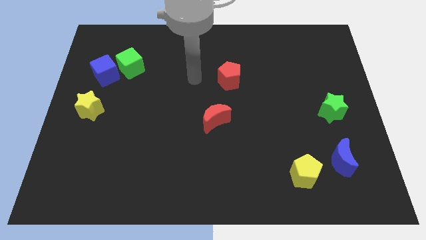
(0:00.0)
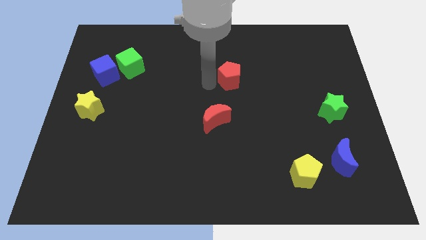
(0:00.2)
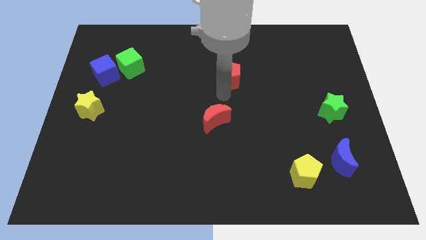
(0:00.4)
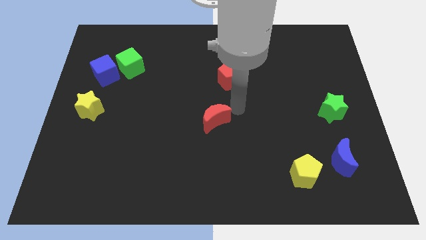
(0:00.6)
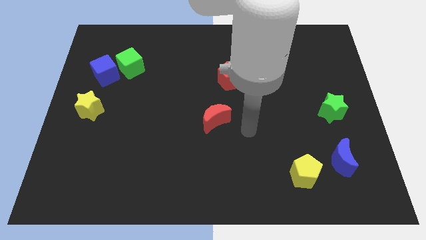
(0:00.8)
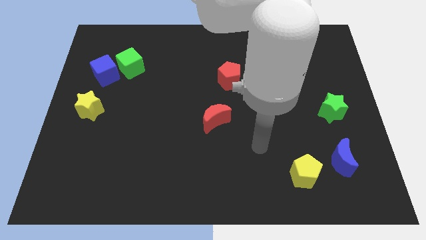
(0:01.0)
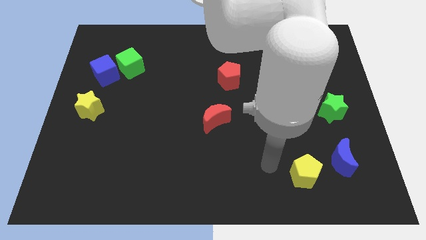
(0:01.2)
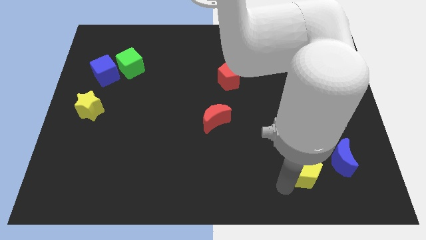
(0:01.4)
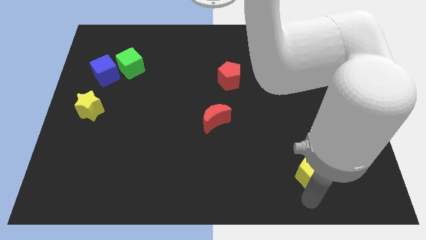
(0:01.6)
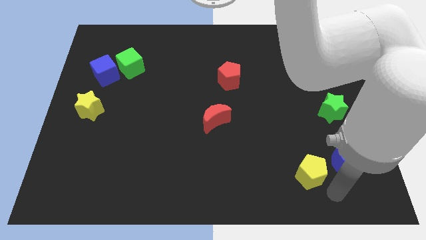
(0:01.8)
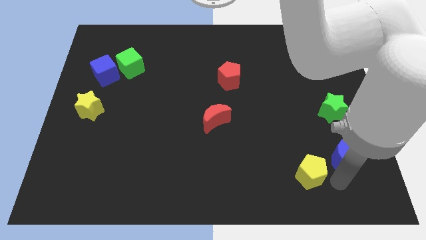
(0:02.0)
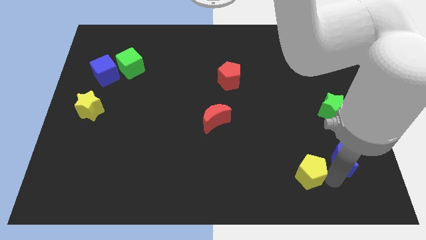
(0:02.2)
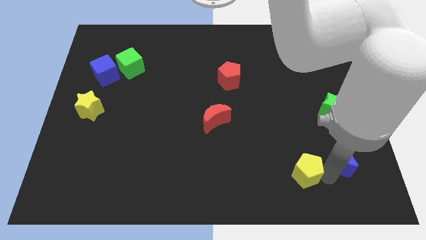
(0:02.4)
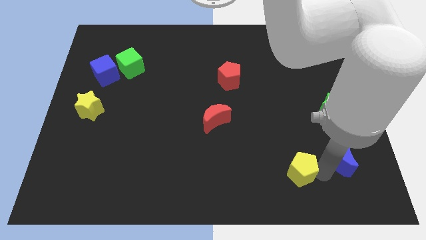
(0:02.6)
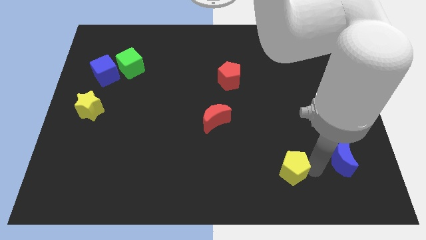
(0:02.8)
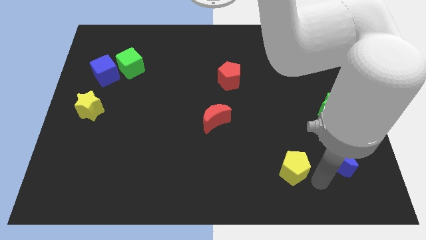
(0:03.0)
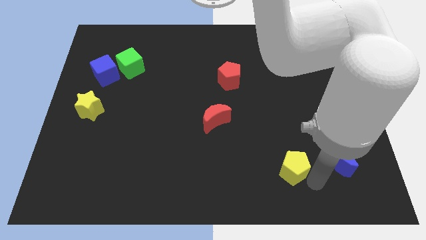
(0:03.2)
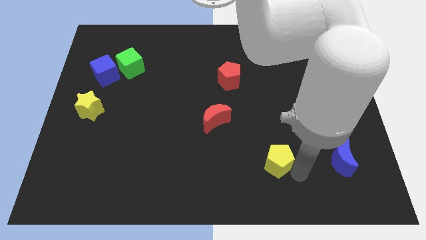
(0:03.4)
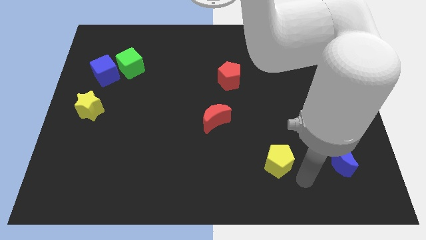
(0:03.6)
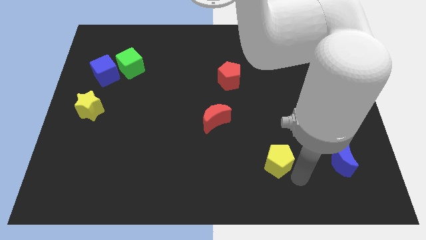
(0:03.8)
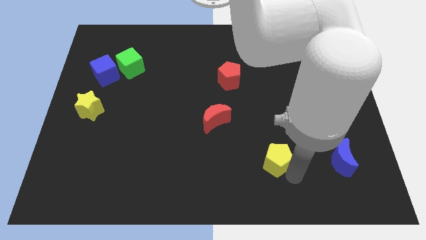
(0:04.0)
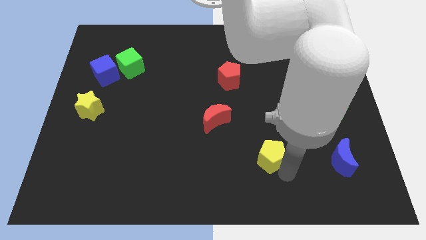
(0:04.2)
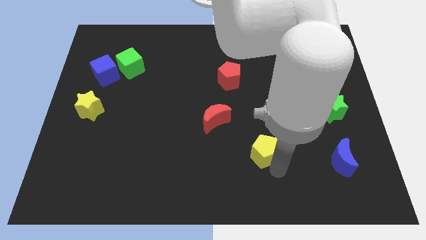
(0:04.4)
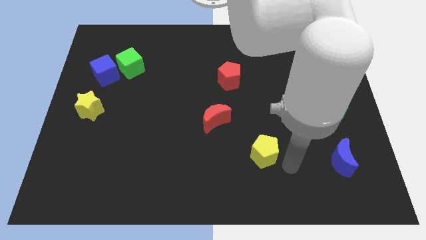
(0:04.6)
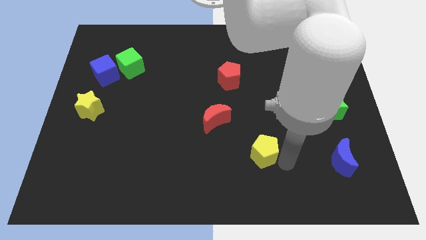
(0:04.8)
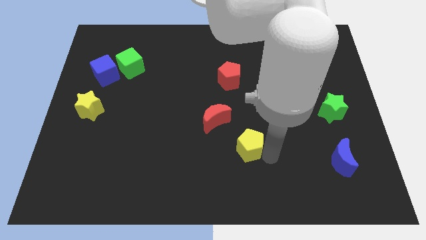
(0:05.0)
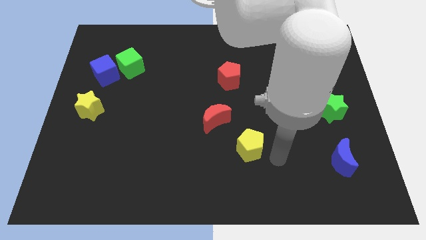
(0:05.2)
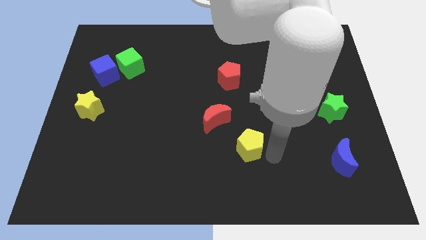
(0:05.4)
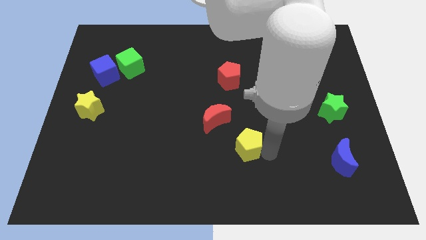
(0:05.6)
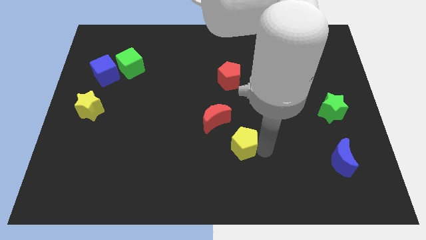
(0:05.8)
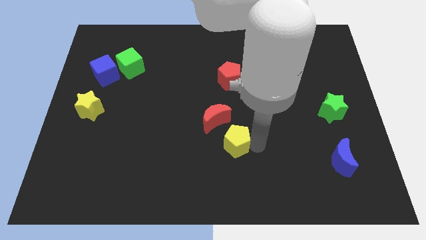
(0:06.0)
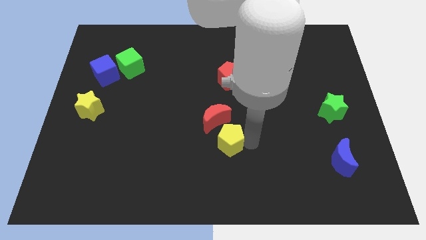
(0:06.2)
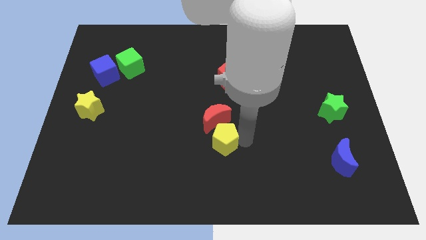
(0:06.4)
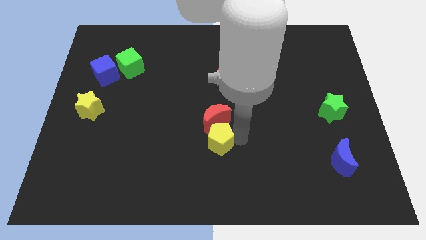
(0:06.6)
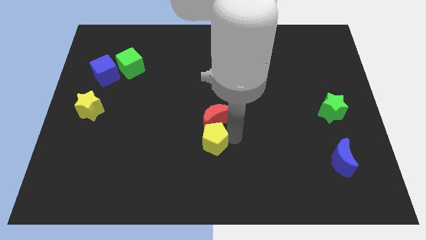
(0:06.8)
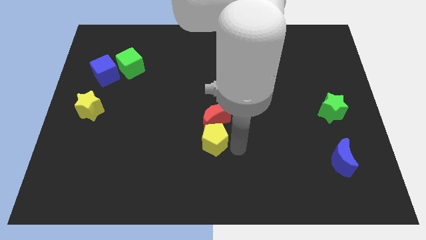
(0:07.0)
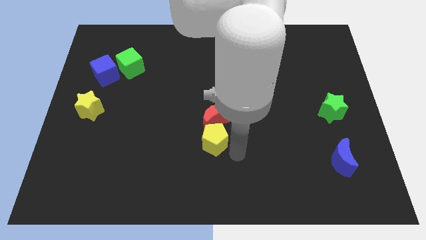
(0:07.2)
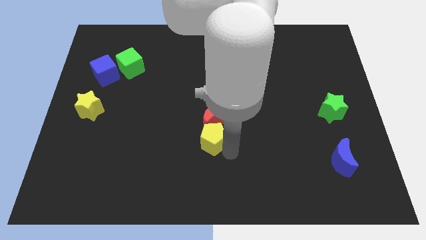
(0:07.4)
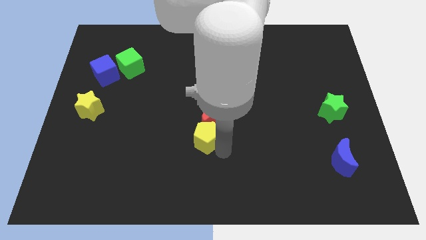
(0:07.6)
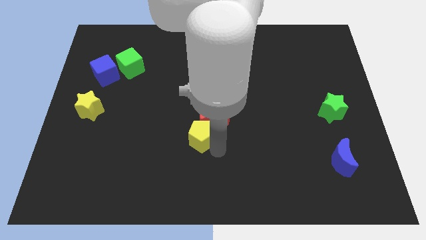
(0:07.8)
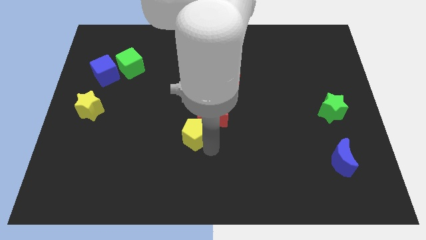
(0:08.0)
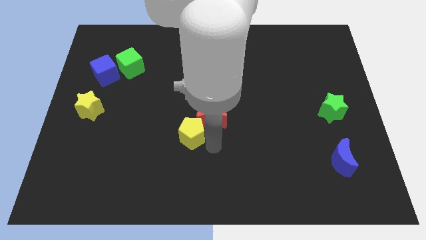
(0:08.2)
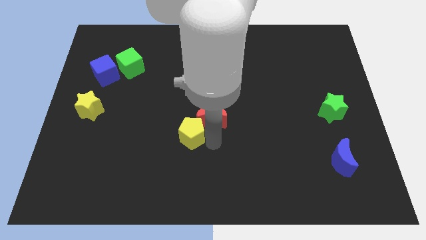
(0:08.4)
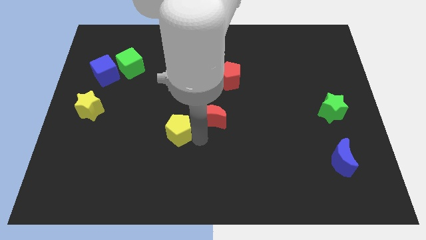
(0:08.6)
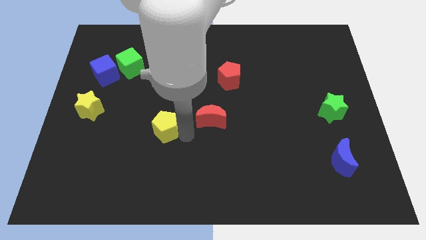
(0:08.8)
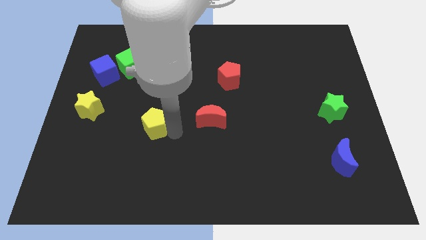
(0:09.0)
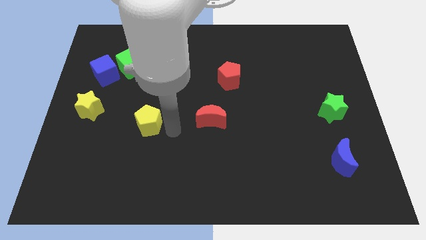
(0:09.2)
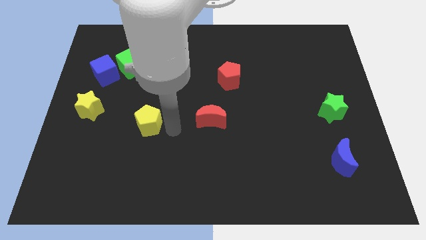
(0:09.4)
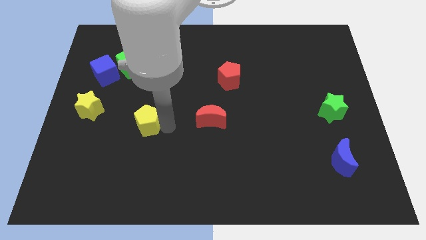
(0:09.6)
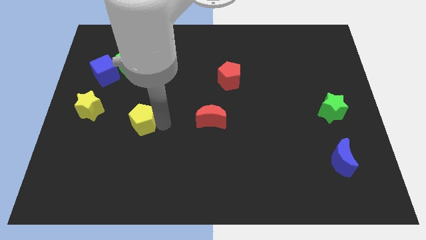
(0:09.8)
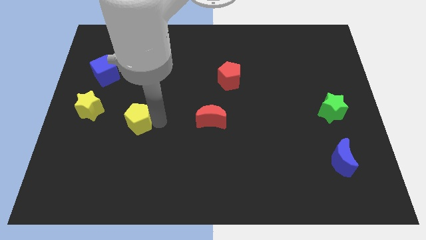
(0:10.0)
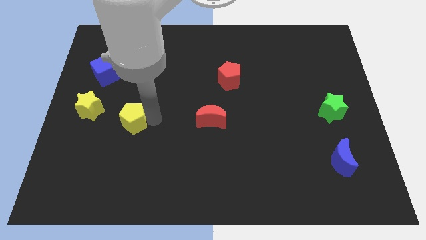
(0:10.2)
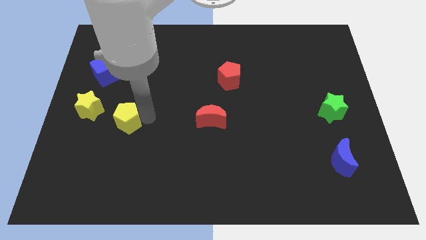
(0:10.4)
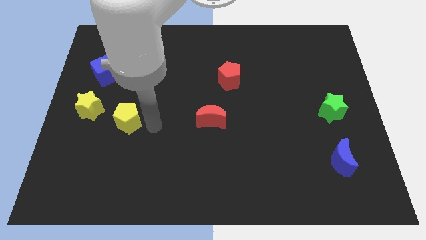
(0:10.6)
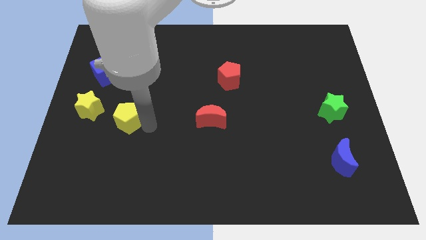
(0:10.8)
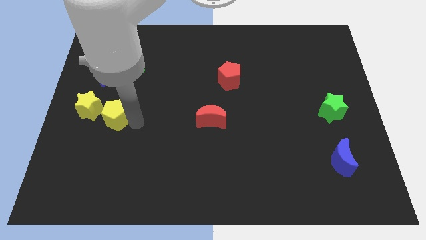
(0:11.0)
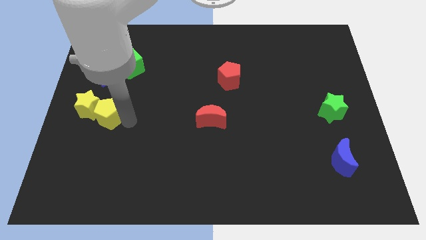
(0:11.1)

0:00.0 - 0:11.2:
push the yellow pentagon close to the yellow star

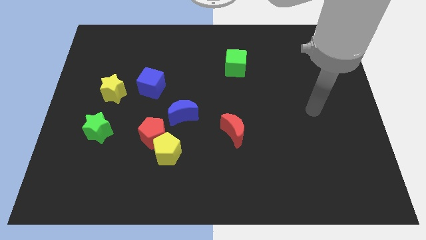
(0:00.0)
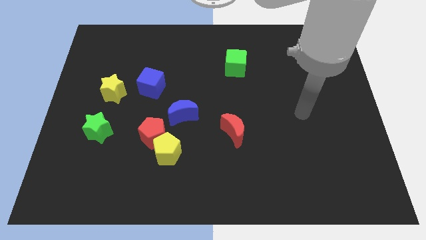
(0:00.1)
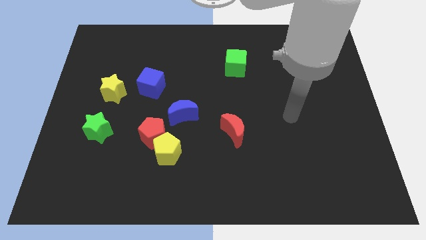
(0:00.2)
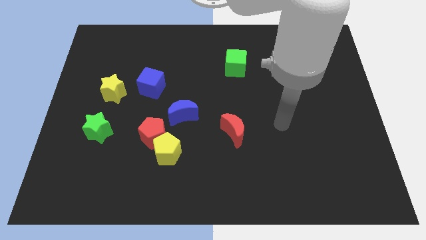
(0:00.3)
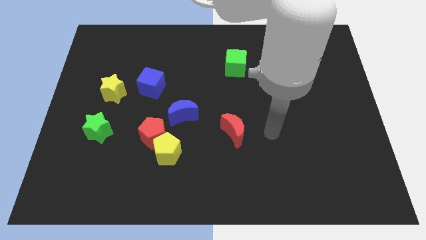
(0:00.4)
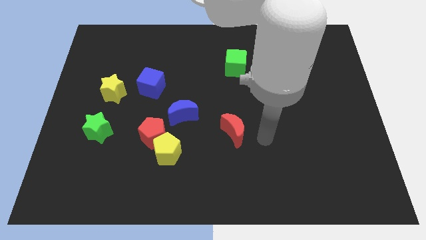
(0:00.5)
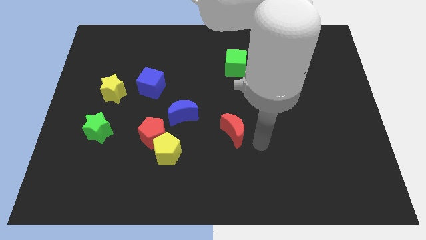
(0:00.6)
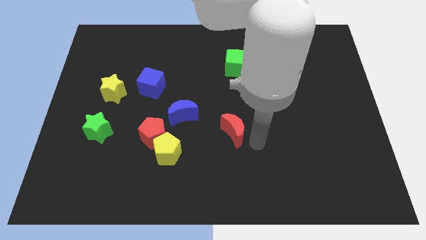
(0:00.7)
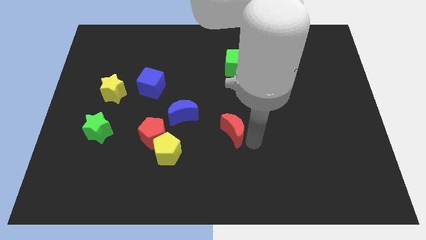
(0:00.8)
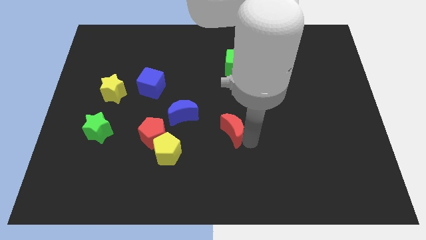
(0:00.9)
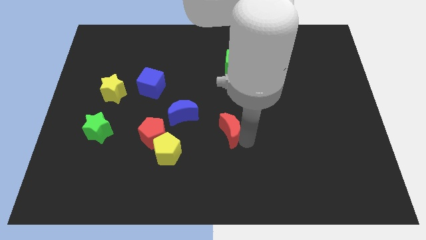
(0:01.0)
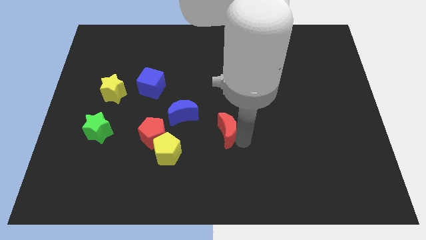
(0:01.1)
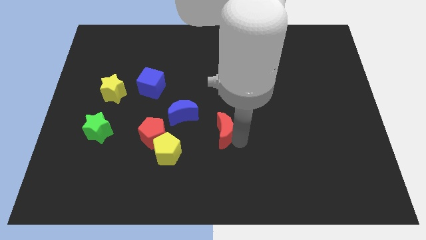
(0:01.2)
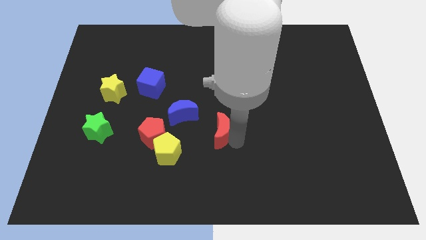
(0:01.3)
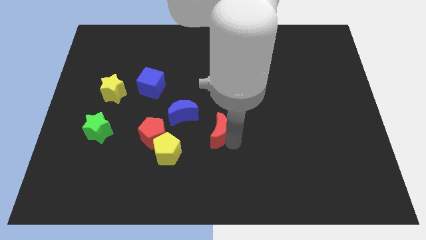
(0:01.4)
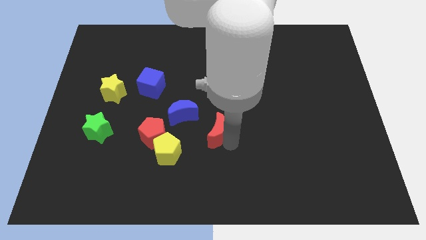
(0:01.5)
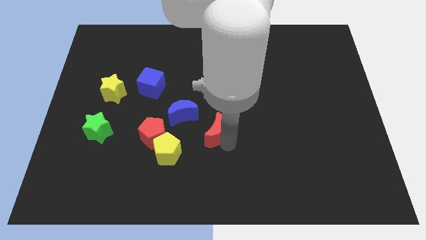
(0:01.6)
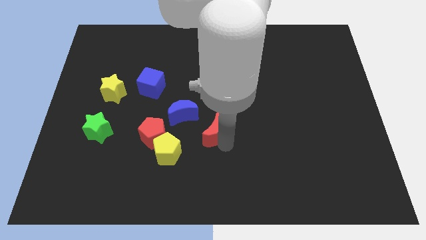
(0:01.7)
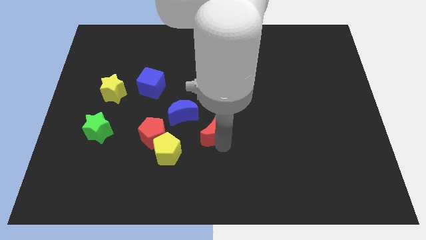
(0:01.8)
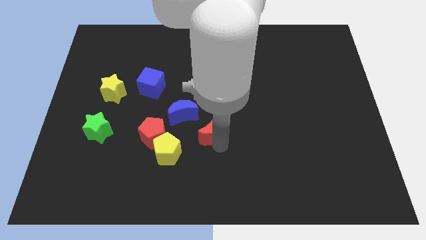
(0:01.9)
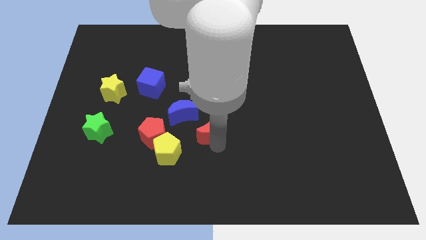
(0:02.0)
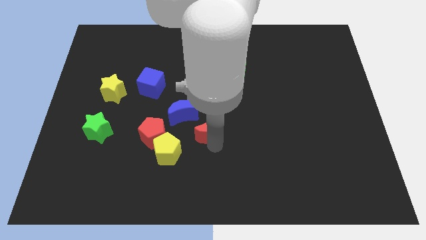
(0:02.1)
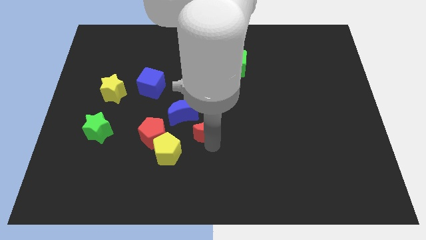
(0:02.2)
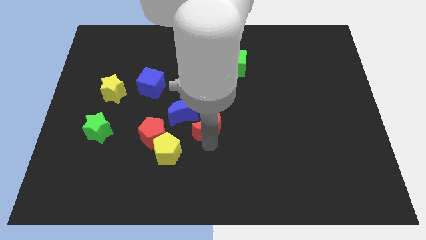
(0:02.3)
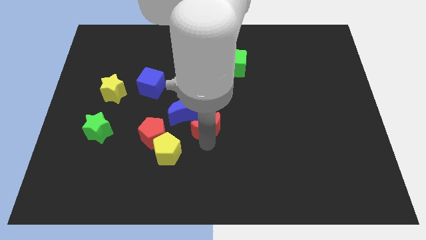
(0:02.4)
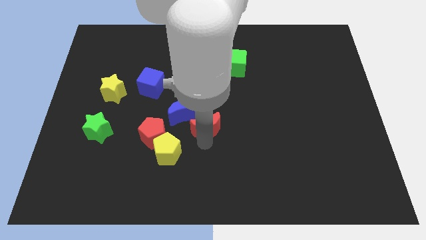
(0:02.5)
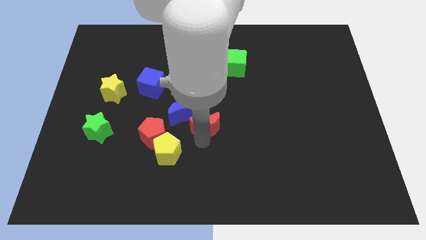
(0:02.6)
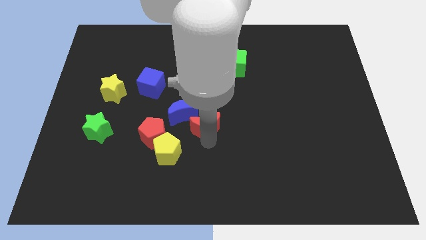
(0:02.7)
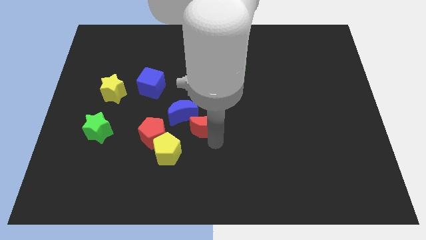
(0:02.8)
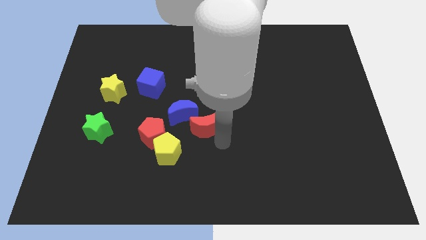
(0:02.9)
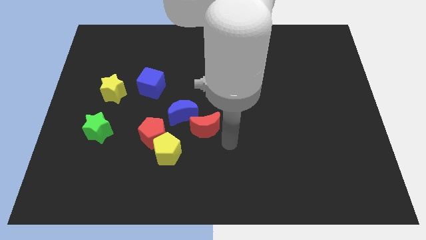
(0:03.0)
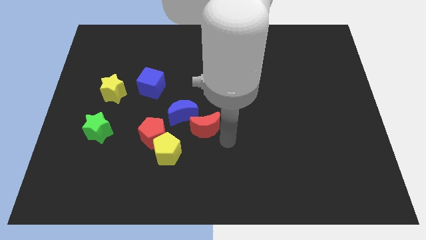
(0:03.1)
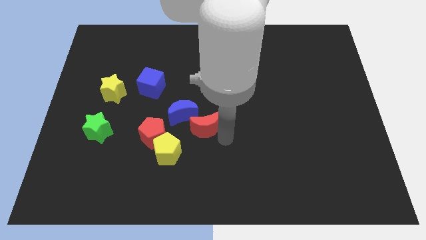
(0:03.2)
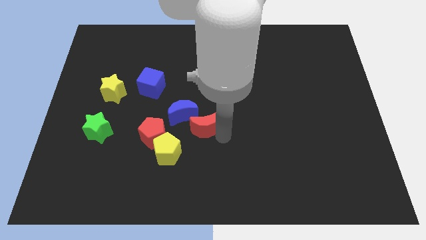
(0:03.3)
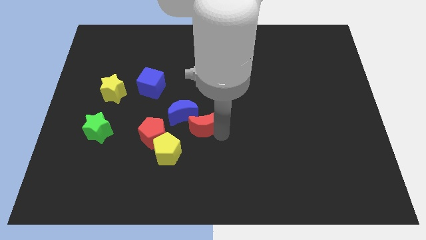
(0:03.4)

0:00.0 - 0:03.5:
put the red moon to the blue moon
